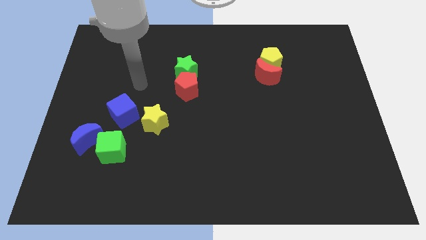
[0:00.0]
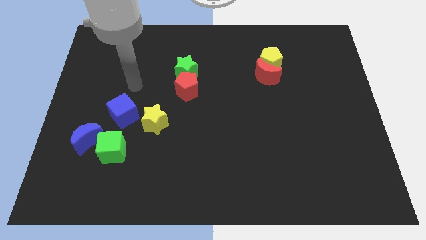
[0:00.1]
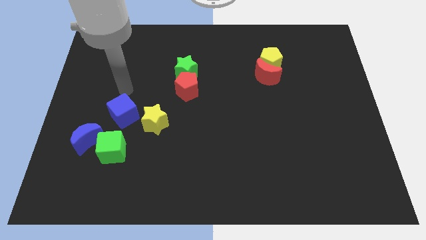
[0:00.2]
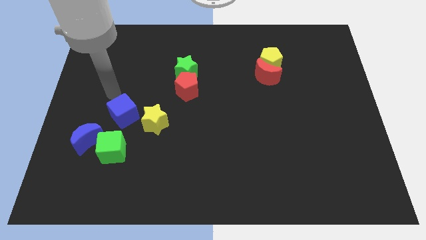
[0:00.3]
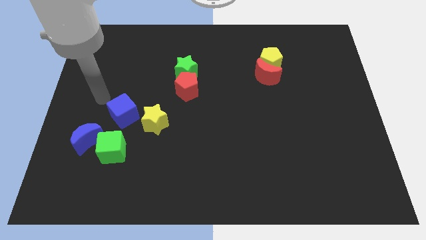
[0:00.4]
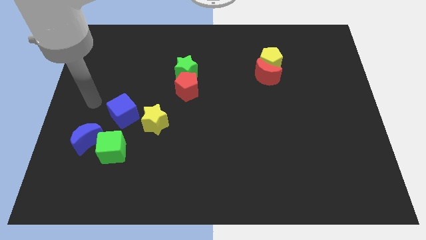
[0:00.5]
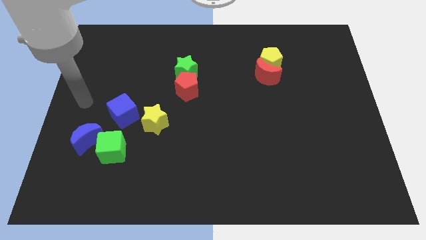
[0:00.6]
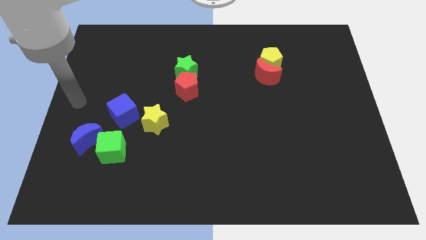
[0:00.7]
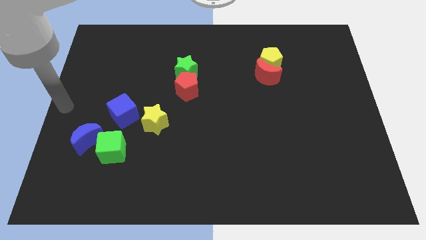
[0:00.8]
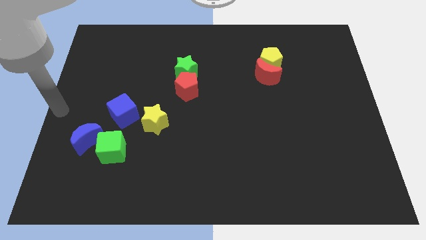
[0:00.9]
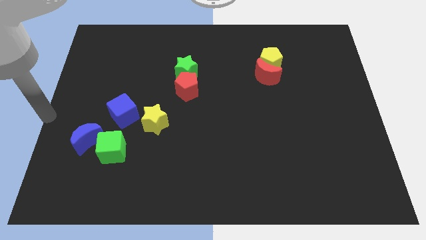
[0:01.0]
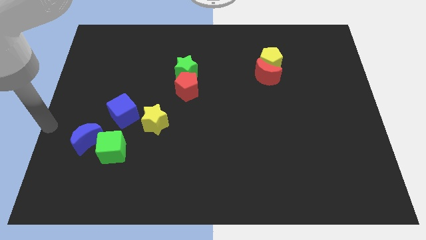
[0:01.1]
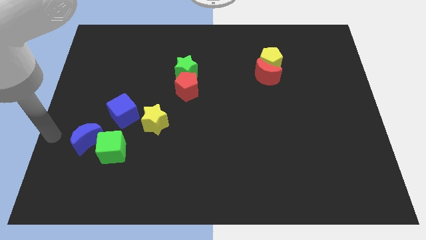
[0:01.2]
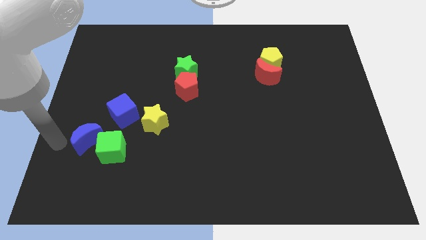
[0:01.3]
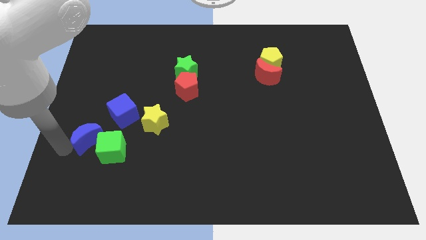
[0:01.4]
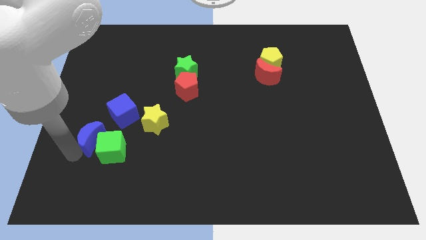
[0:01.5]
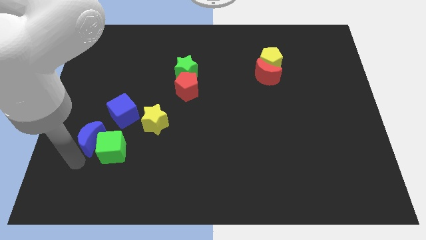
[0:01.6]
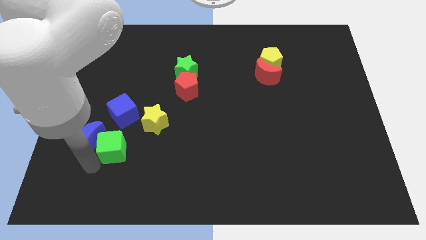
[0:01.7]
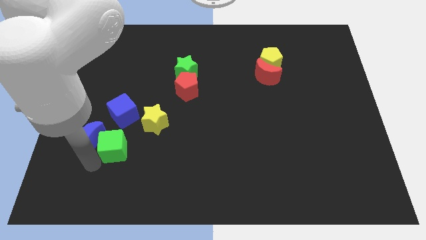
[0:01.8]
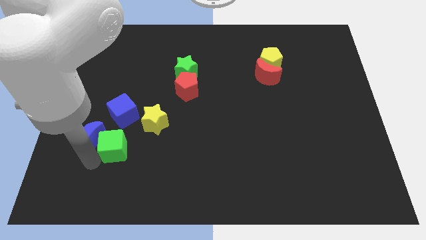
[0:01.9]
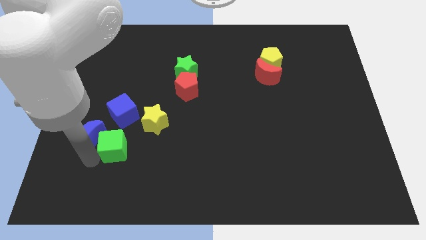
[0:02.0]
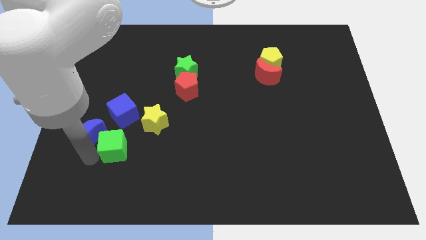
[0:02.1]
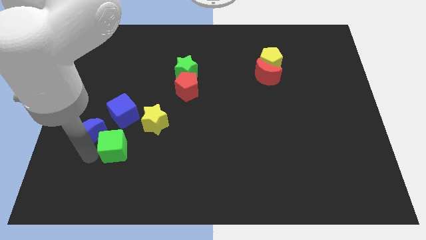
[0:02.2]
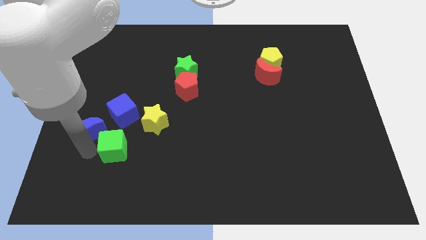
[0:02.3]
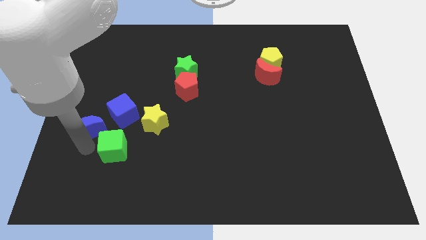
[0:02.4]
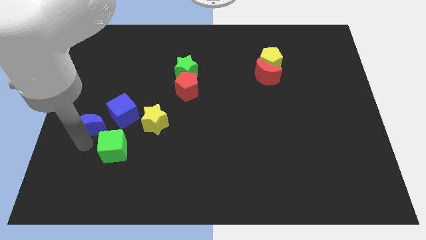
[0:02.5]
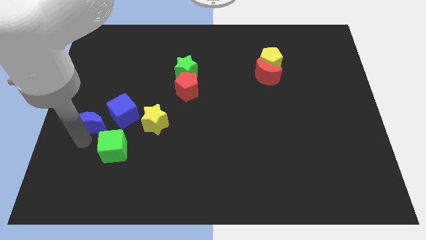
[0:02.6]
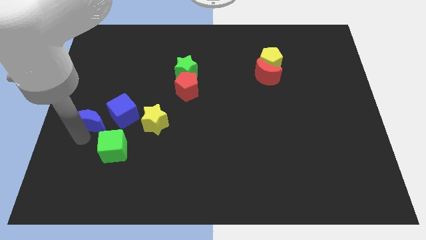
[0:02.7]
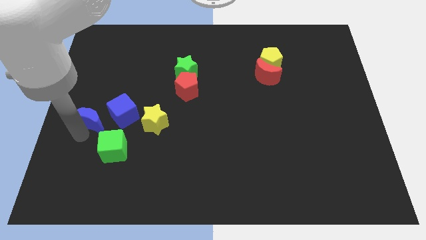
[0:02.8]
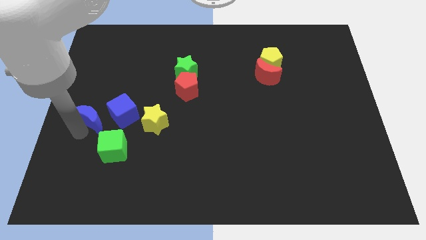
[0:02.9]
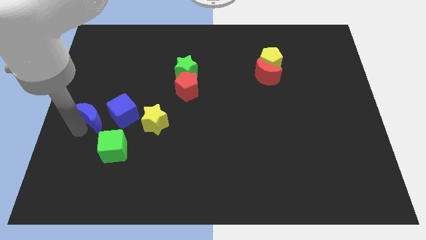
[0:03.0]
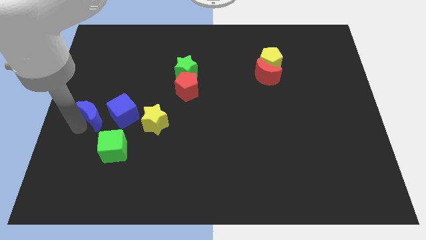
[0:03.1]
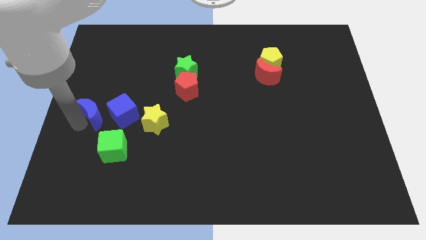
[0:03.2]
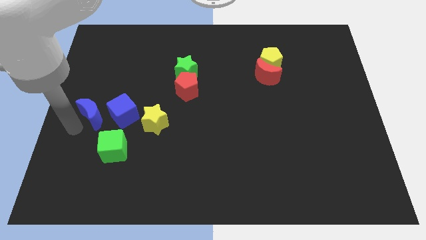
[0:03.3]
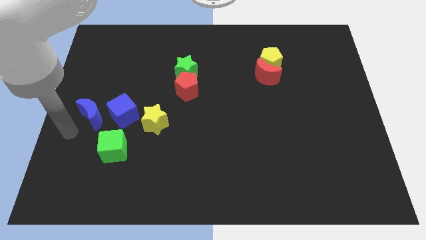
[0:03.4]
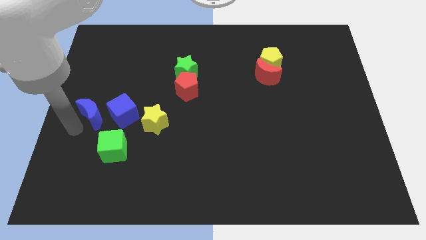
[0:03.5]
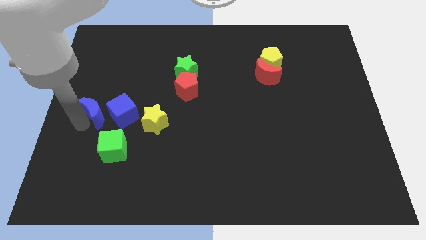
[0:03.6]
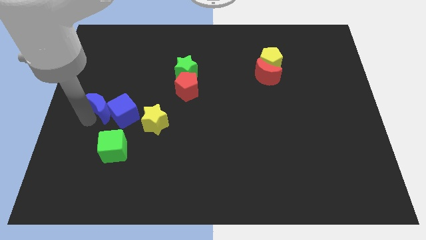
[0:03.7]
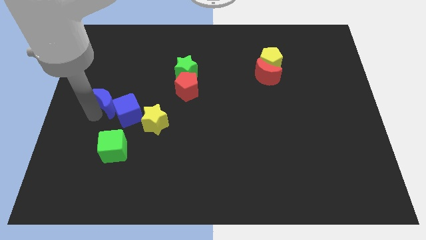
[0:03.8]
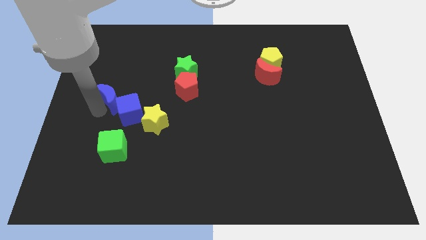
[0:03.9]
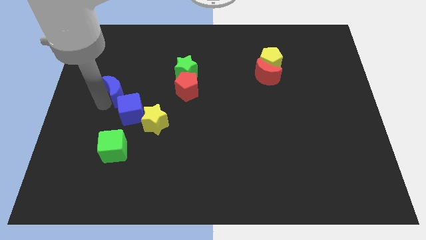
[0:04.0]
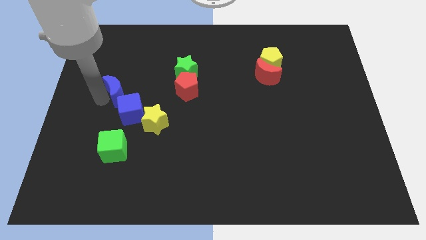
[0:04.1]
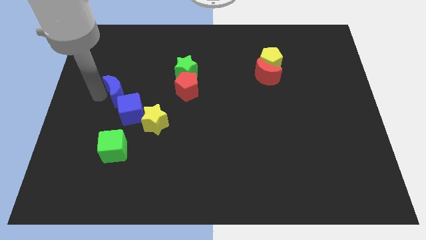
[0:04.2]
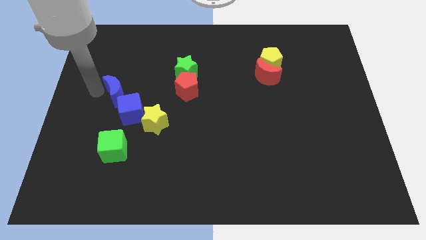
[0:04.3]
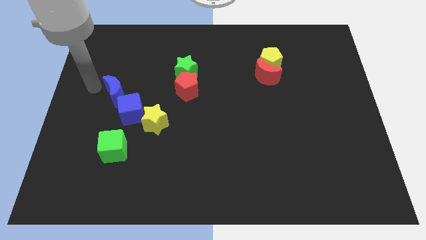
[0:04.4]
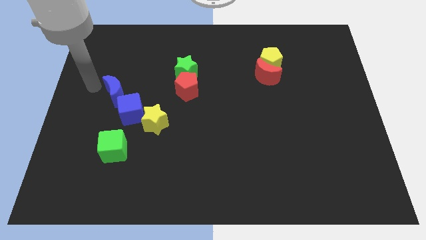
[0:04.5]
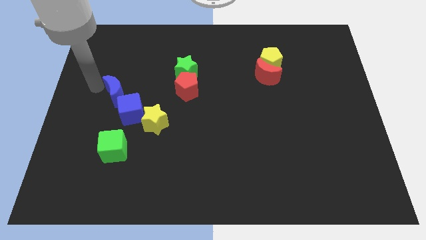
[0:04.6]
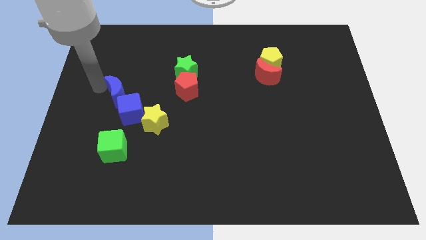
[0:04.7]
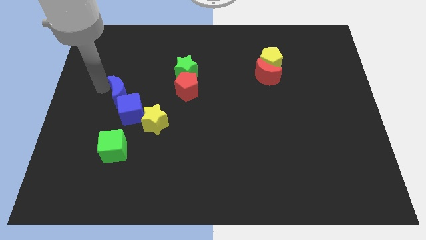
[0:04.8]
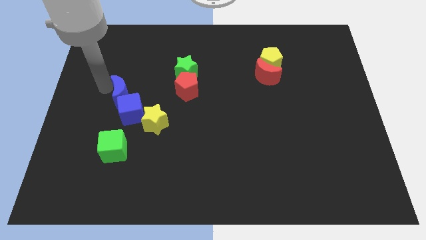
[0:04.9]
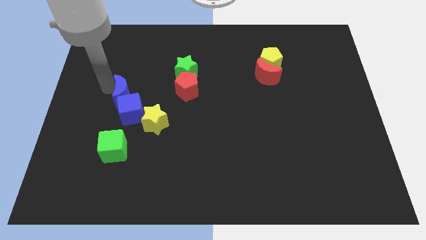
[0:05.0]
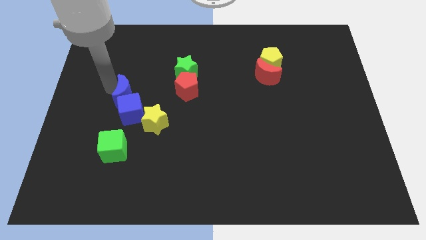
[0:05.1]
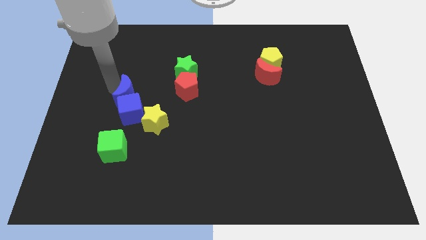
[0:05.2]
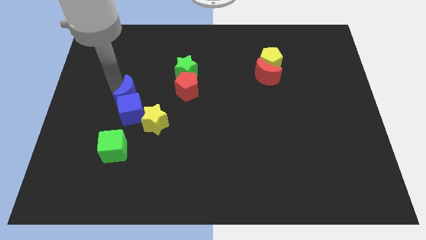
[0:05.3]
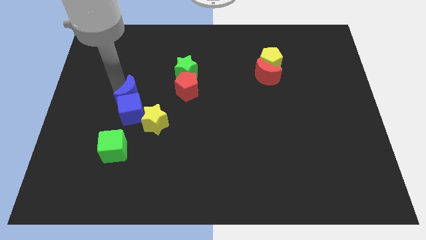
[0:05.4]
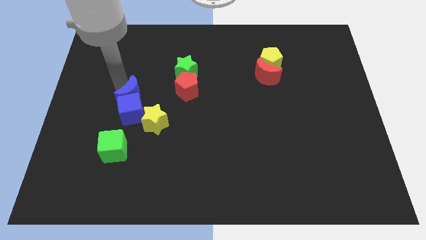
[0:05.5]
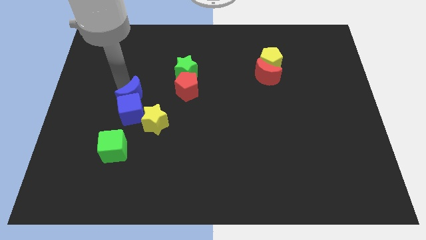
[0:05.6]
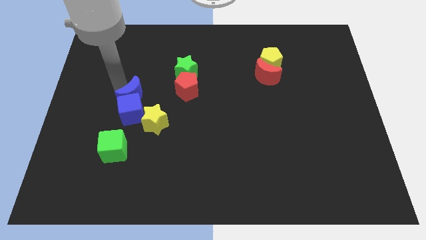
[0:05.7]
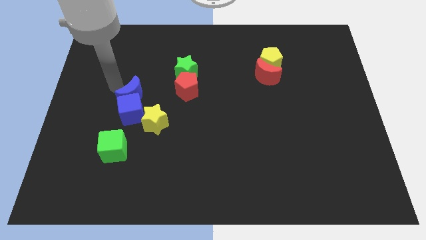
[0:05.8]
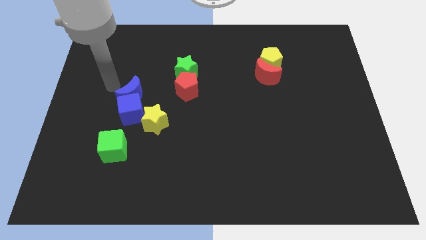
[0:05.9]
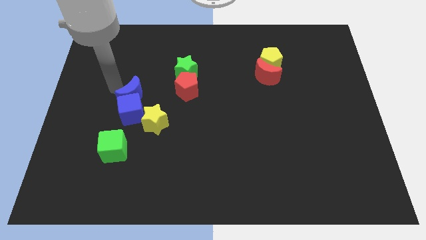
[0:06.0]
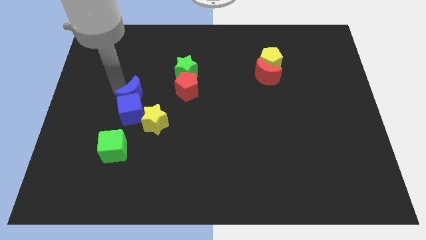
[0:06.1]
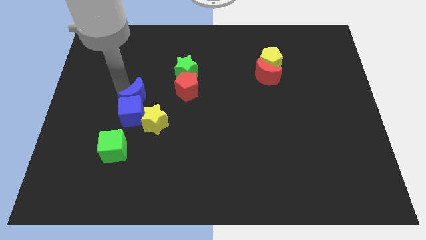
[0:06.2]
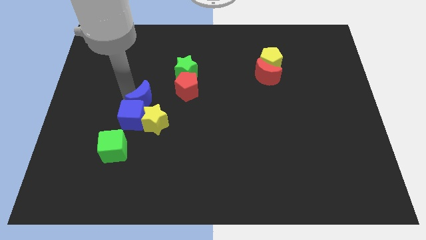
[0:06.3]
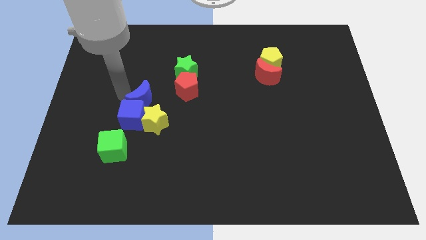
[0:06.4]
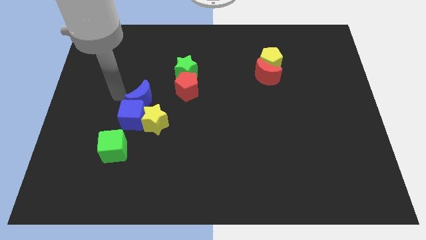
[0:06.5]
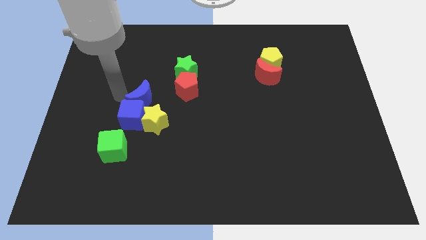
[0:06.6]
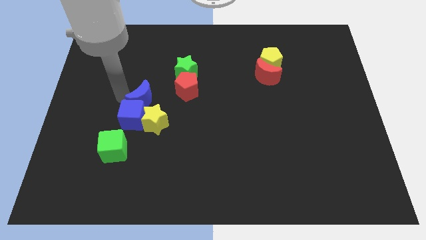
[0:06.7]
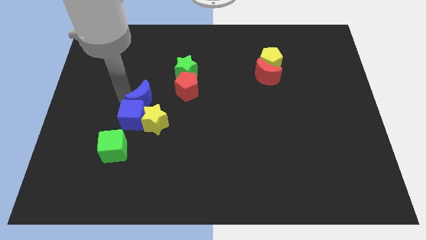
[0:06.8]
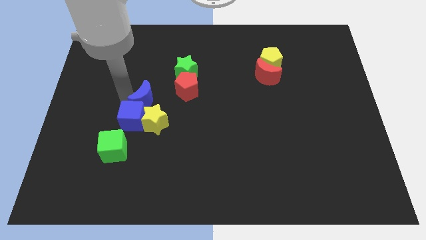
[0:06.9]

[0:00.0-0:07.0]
push the blue moon diagonally down and to the left of the red pentagon

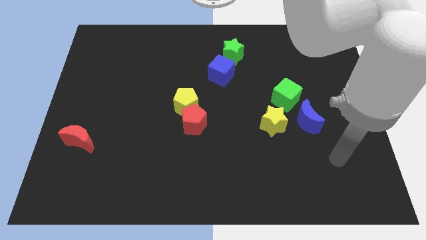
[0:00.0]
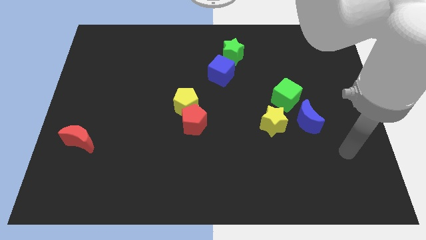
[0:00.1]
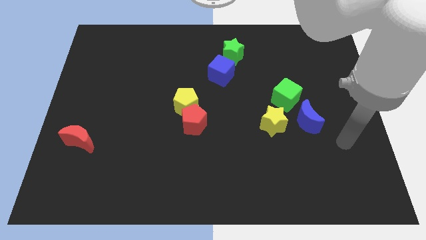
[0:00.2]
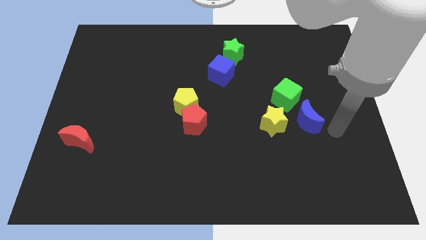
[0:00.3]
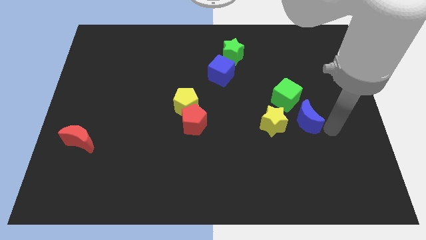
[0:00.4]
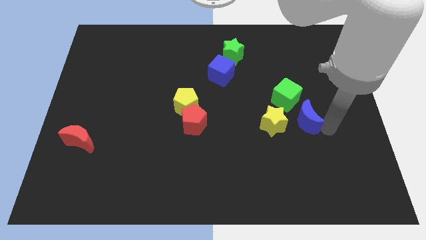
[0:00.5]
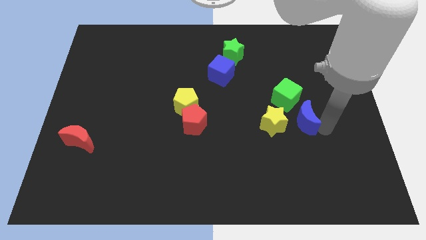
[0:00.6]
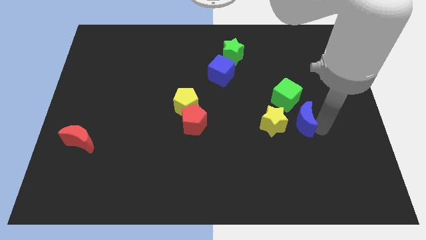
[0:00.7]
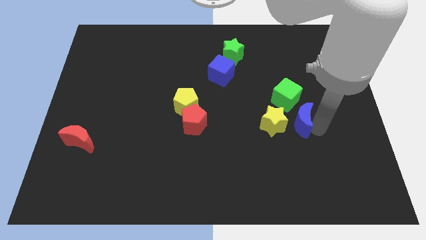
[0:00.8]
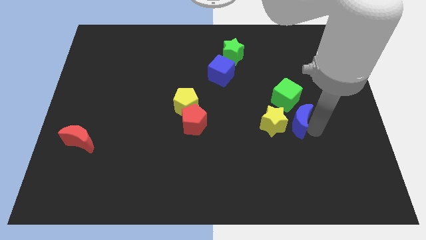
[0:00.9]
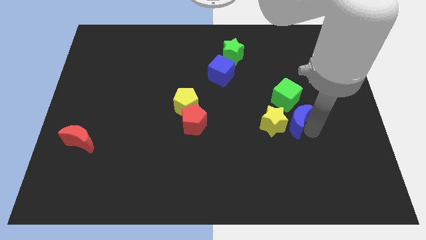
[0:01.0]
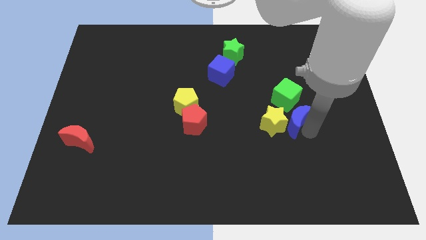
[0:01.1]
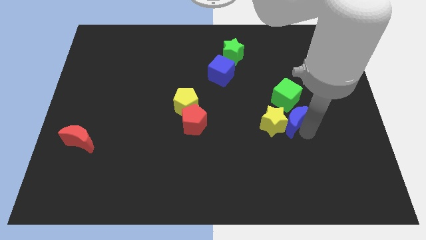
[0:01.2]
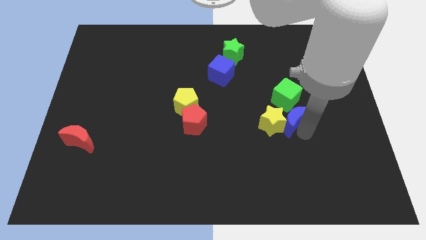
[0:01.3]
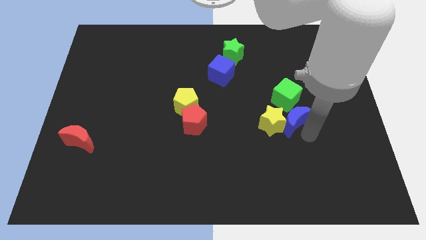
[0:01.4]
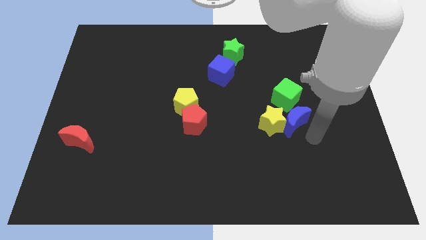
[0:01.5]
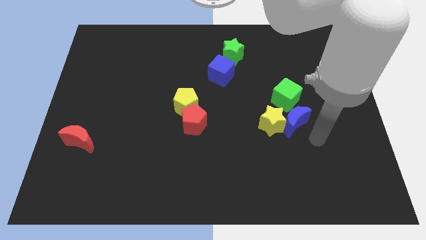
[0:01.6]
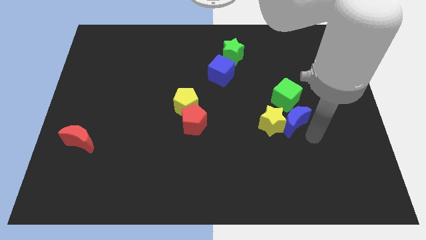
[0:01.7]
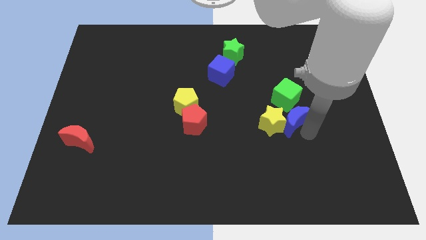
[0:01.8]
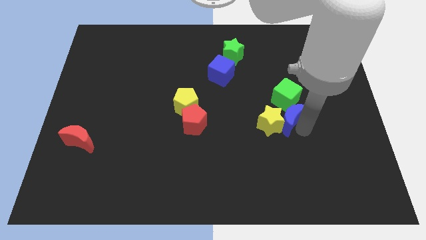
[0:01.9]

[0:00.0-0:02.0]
slide the blue moon diagonally down and to the left of the green cube
